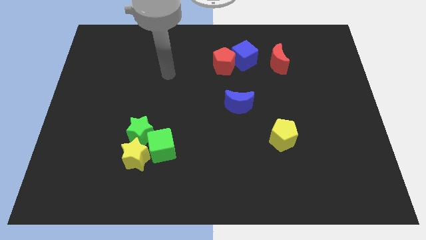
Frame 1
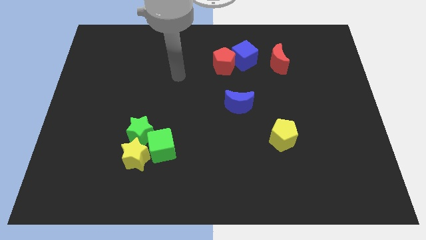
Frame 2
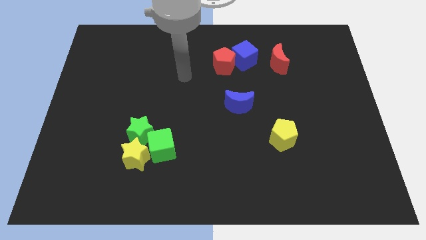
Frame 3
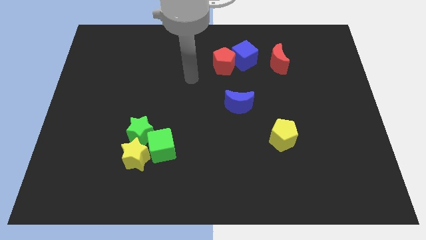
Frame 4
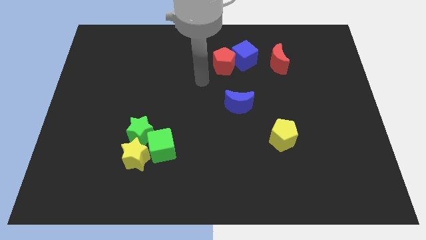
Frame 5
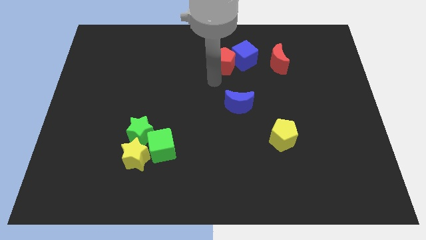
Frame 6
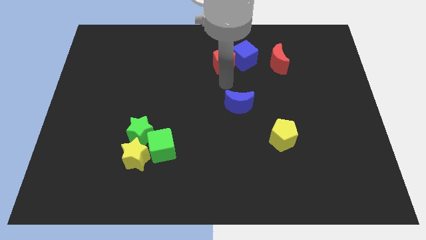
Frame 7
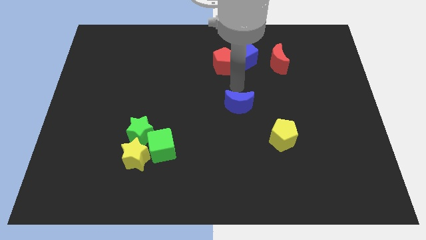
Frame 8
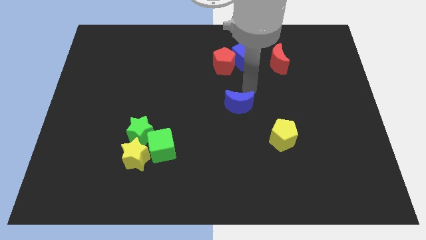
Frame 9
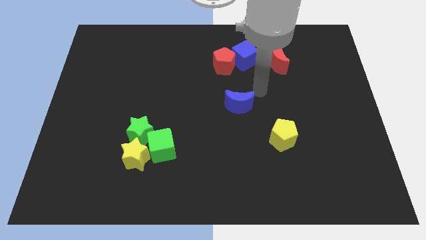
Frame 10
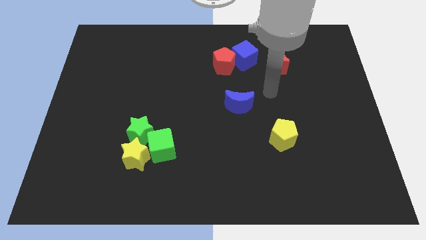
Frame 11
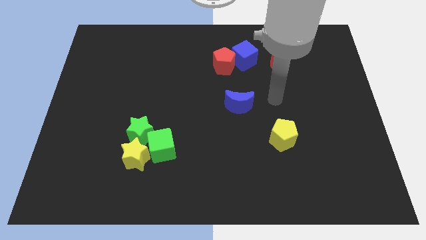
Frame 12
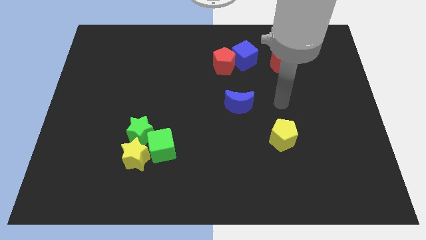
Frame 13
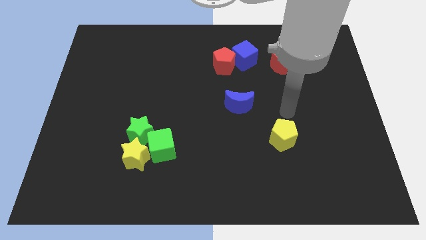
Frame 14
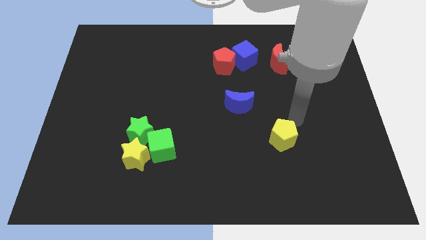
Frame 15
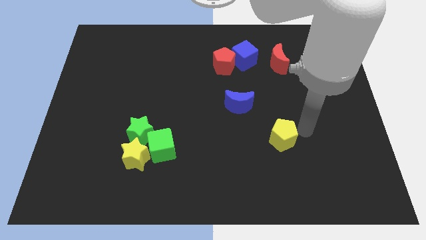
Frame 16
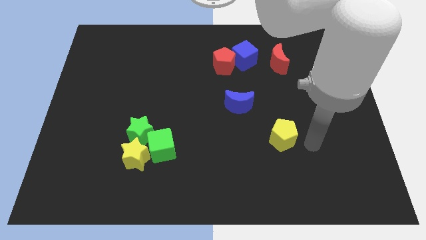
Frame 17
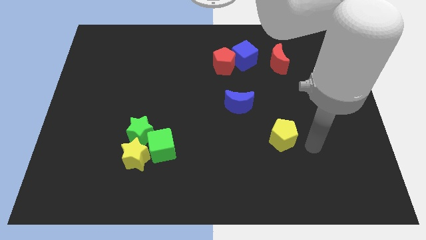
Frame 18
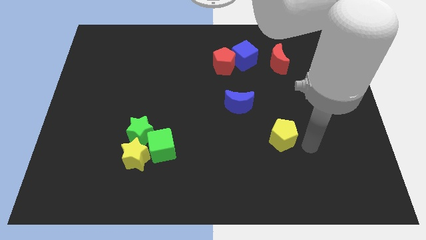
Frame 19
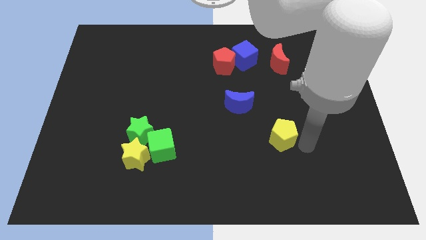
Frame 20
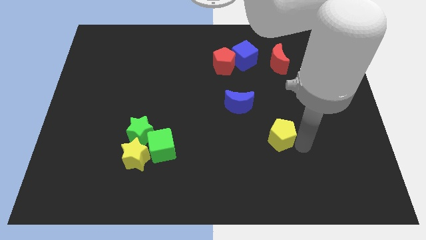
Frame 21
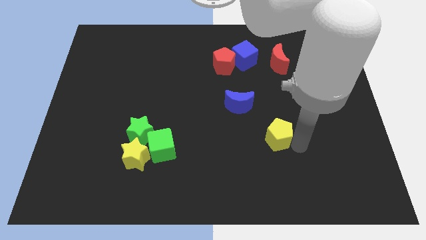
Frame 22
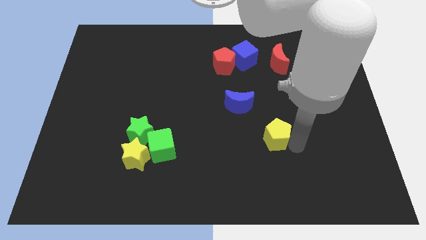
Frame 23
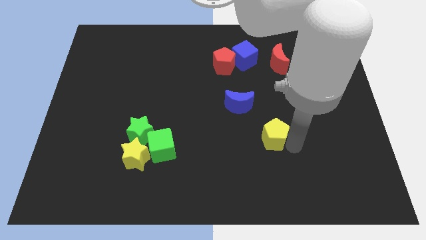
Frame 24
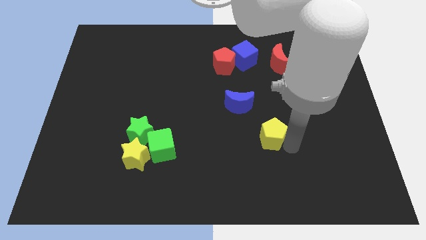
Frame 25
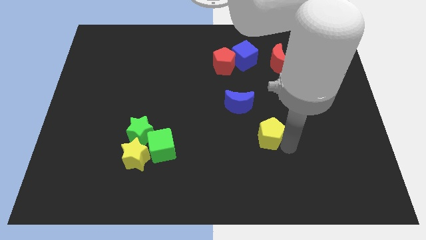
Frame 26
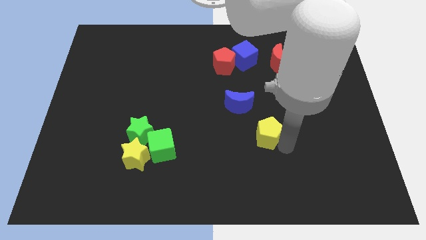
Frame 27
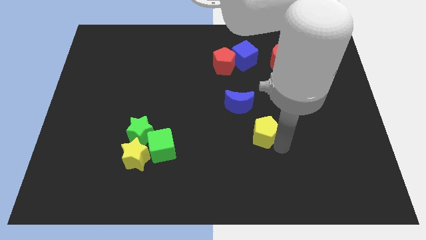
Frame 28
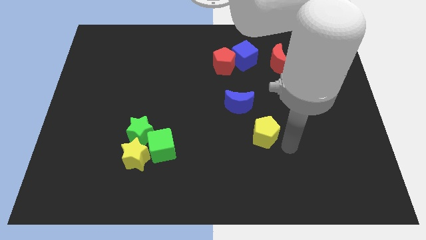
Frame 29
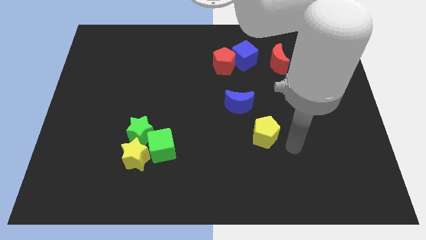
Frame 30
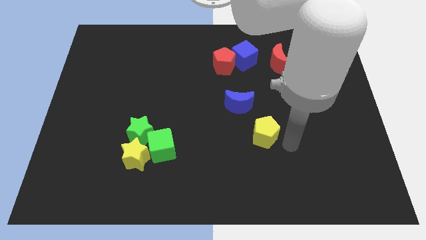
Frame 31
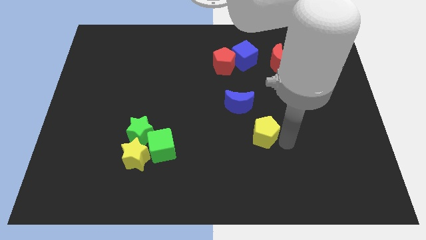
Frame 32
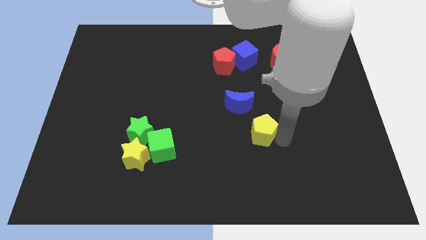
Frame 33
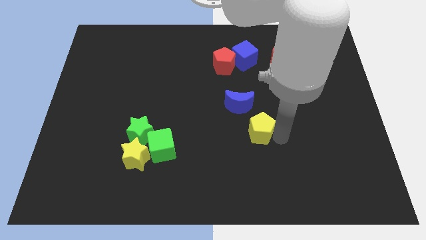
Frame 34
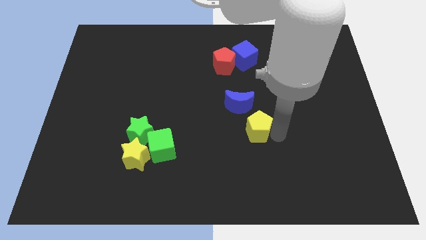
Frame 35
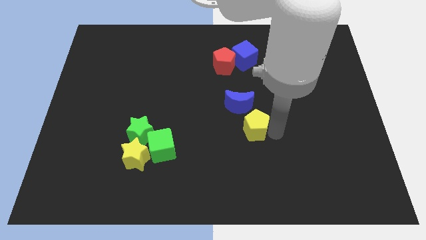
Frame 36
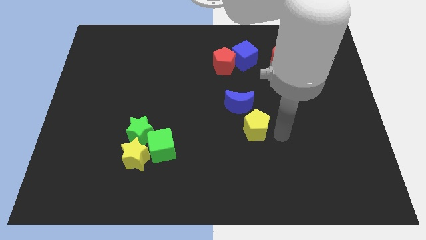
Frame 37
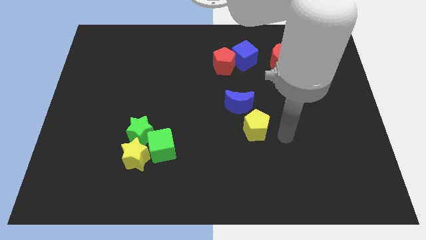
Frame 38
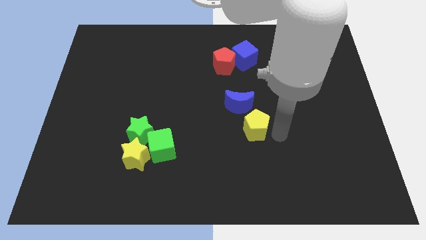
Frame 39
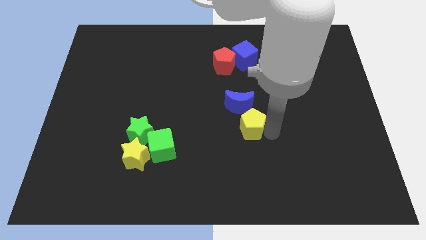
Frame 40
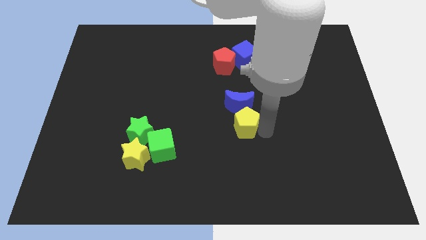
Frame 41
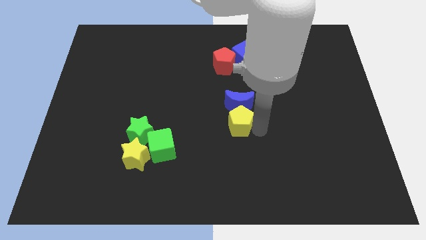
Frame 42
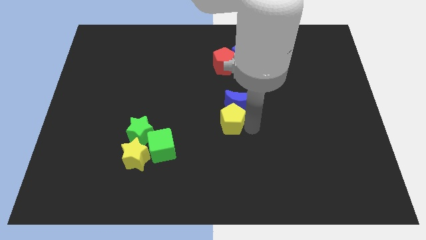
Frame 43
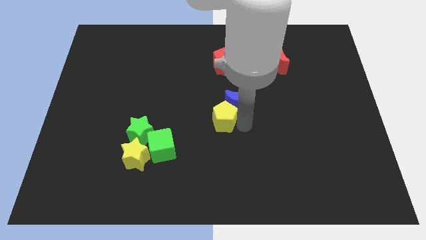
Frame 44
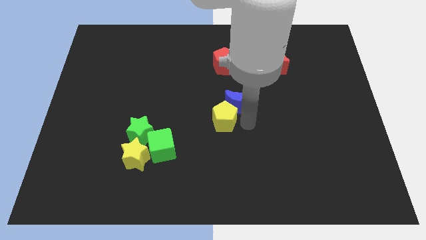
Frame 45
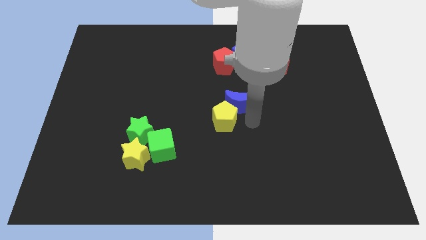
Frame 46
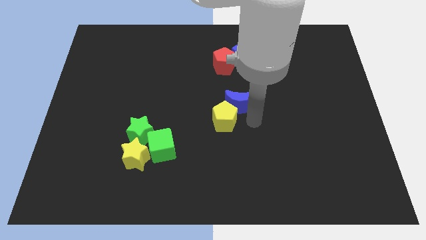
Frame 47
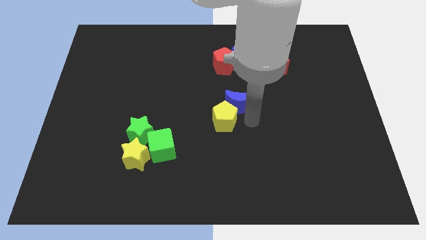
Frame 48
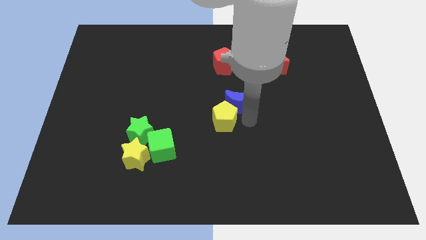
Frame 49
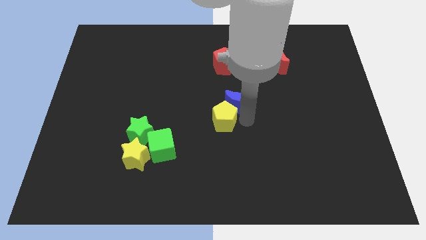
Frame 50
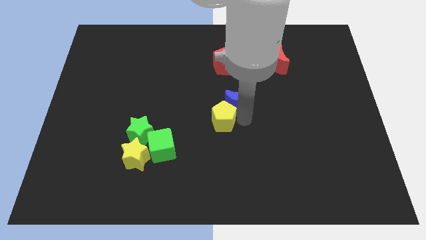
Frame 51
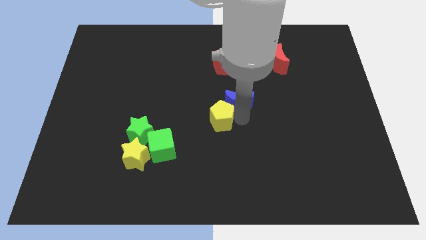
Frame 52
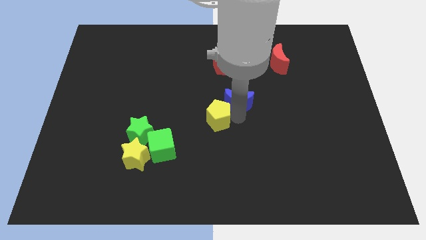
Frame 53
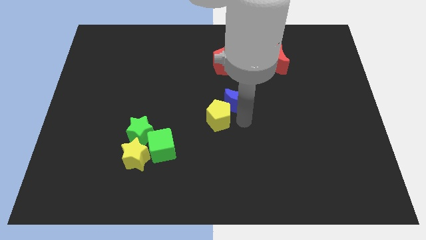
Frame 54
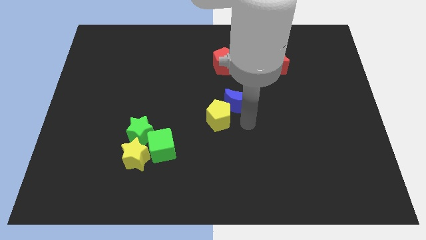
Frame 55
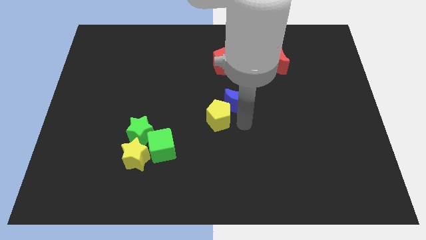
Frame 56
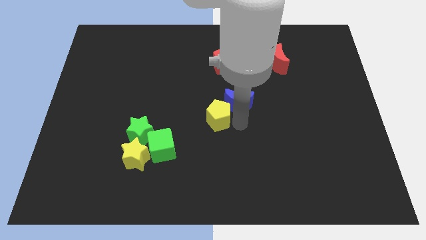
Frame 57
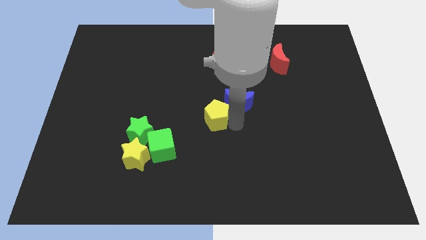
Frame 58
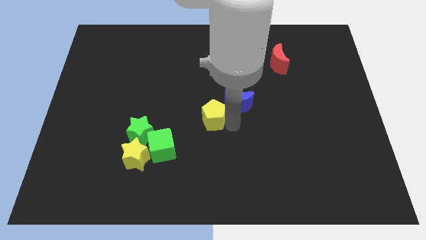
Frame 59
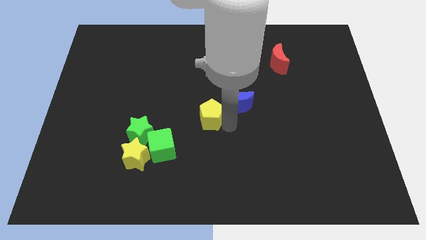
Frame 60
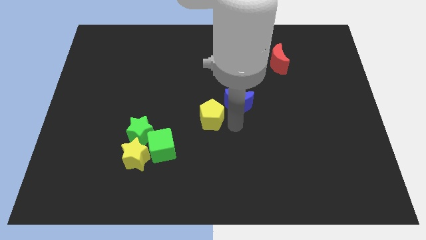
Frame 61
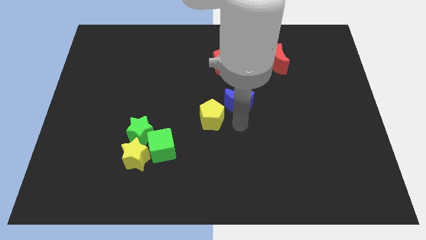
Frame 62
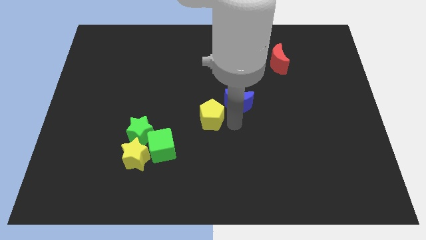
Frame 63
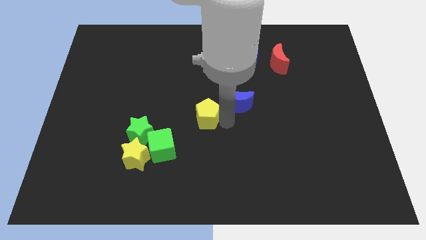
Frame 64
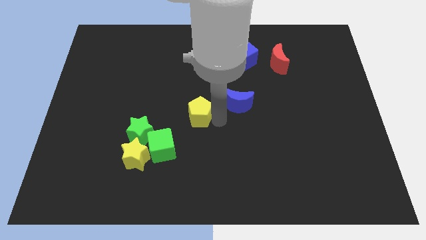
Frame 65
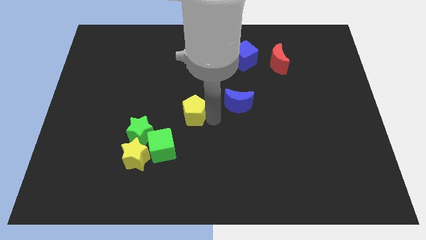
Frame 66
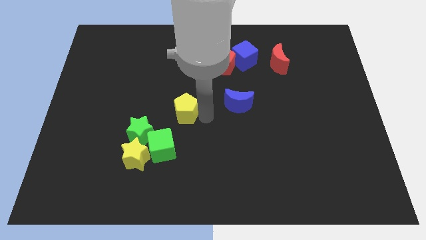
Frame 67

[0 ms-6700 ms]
move the yellow pentagon above the green cube
